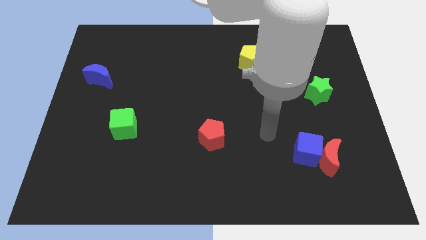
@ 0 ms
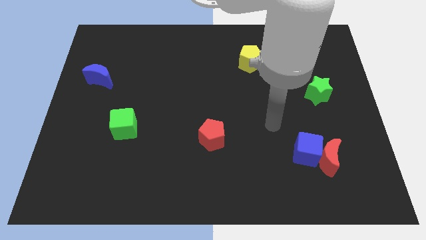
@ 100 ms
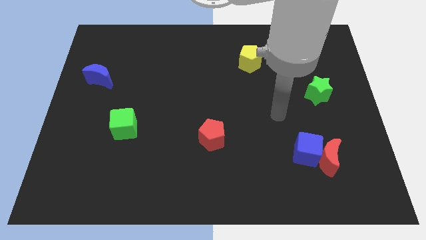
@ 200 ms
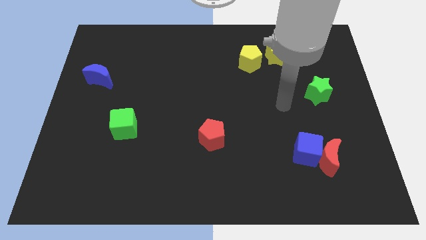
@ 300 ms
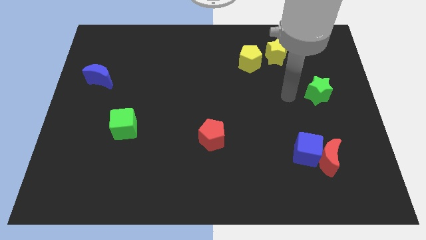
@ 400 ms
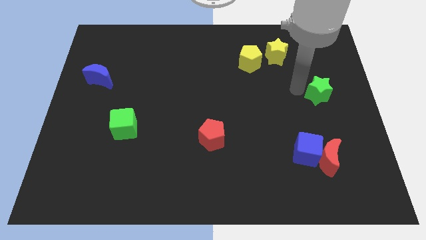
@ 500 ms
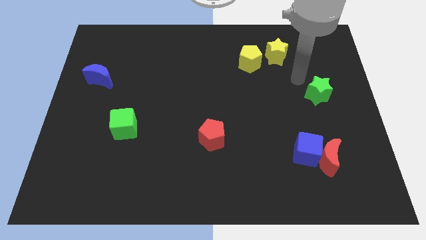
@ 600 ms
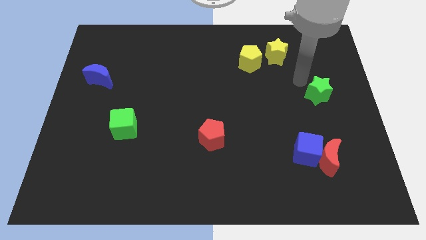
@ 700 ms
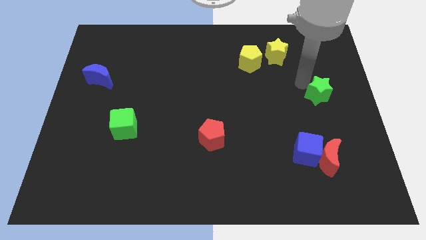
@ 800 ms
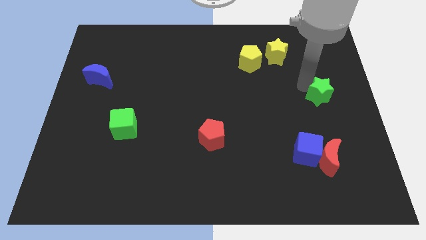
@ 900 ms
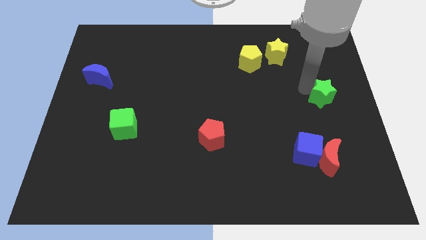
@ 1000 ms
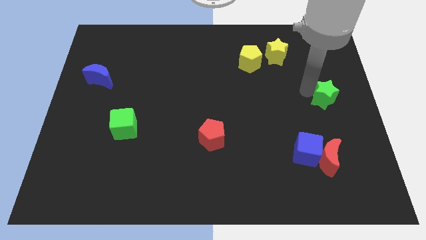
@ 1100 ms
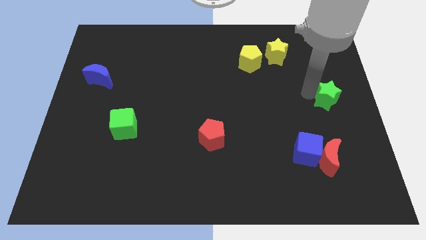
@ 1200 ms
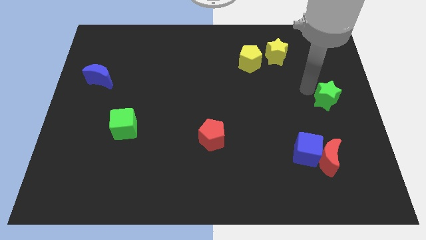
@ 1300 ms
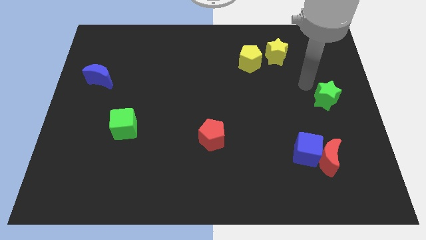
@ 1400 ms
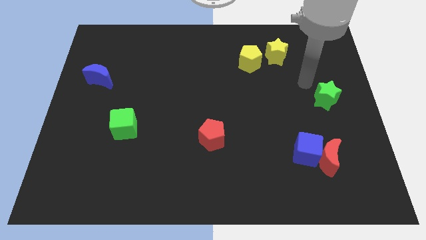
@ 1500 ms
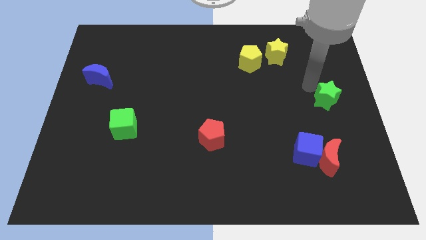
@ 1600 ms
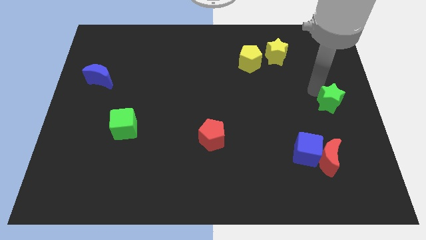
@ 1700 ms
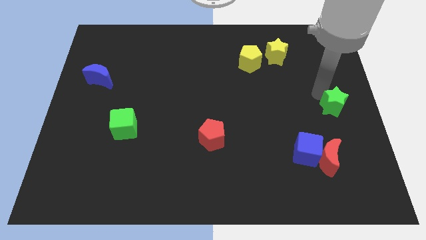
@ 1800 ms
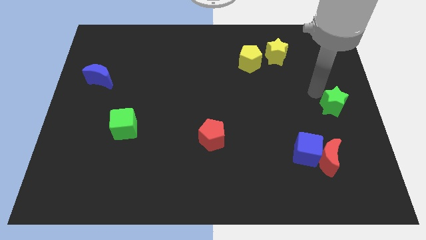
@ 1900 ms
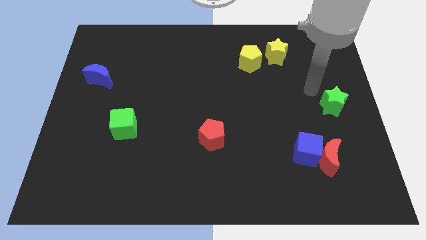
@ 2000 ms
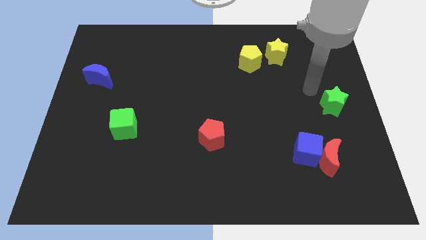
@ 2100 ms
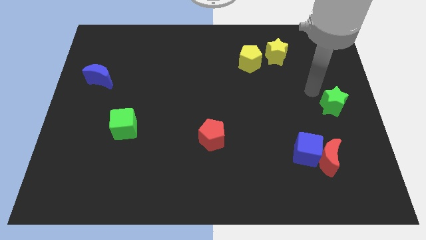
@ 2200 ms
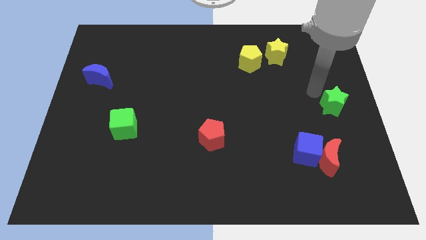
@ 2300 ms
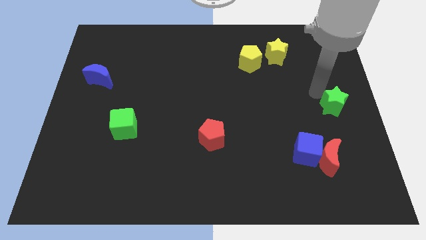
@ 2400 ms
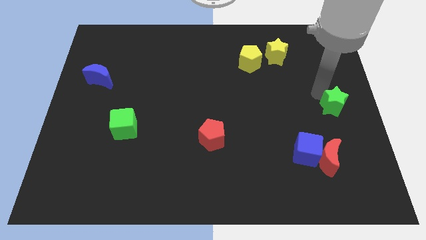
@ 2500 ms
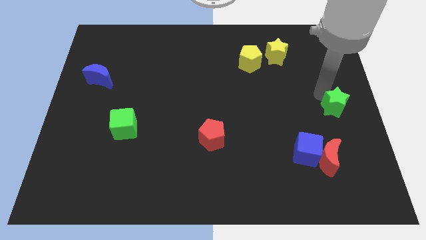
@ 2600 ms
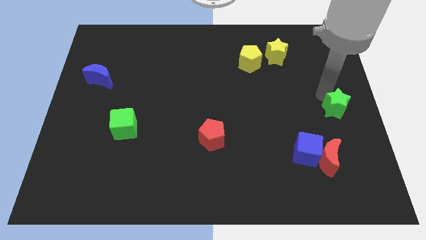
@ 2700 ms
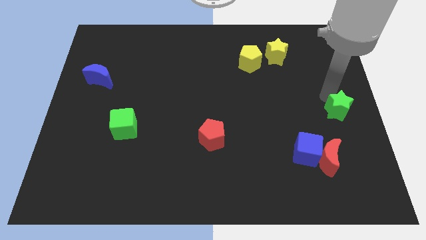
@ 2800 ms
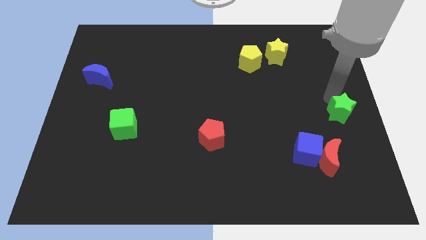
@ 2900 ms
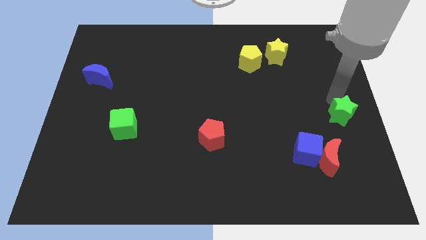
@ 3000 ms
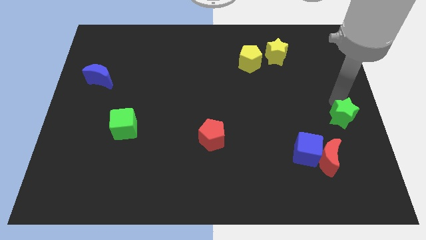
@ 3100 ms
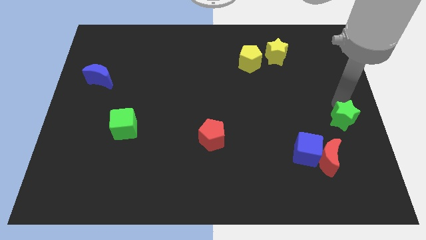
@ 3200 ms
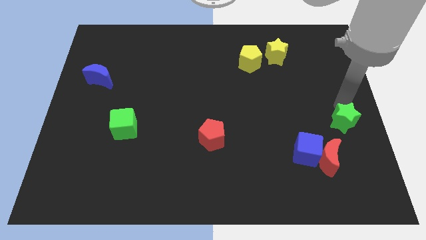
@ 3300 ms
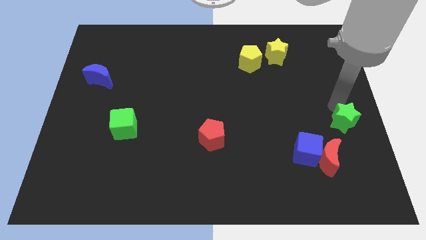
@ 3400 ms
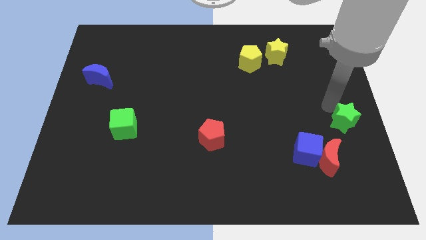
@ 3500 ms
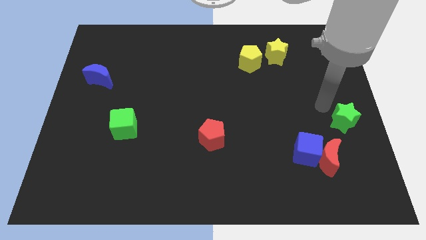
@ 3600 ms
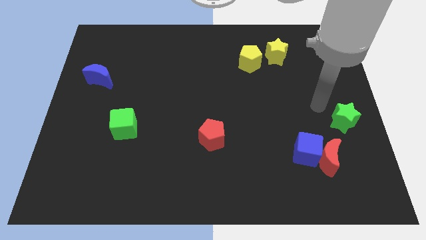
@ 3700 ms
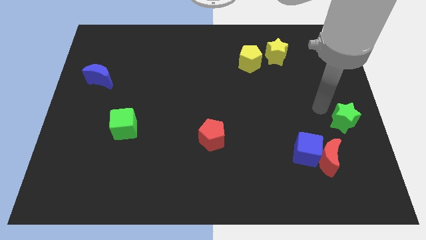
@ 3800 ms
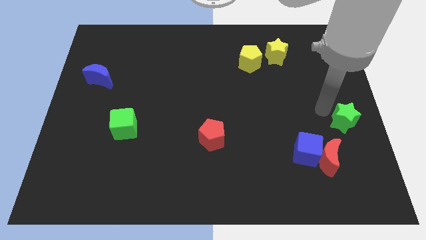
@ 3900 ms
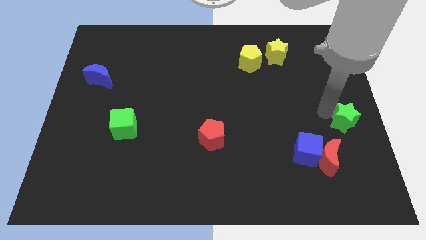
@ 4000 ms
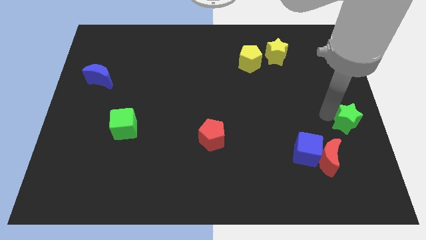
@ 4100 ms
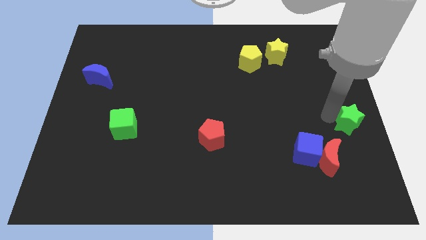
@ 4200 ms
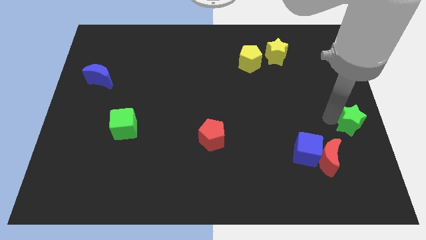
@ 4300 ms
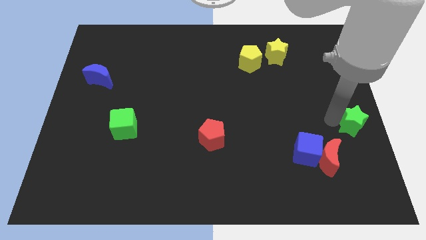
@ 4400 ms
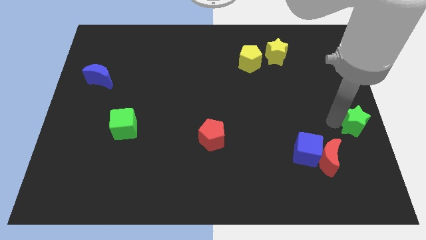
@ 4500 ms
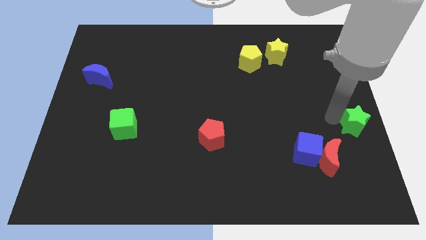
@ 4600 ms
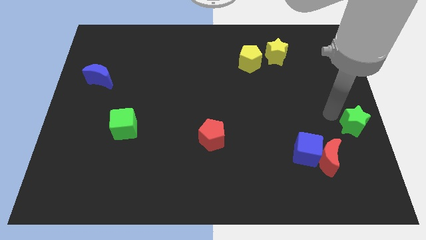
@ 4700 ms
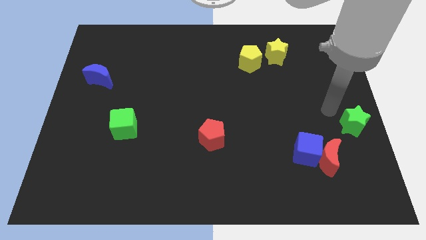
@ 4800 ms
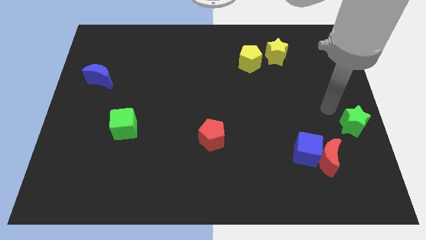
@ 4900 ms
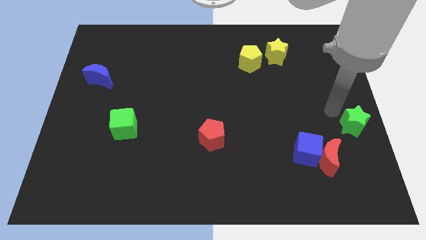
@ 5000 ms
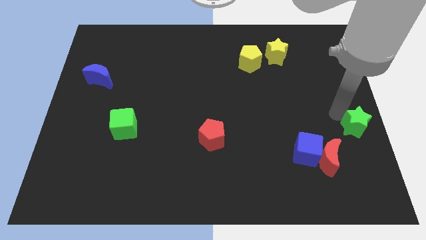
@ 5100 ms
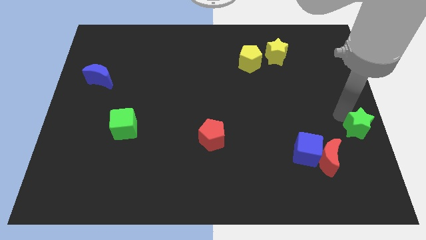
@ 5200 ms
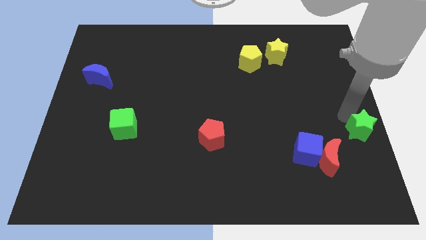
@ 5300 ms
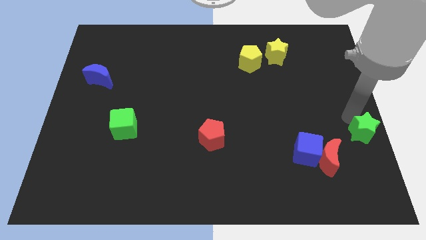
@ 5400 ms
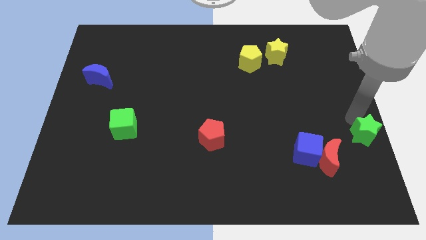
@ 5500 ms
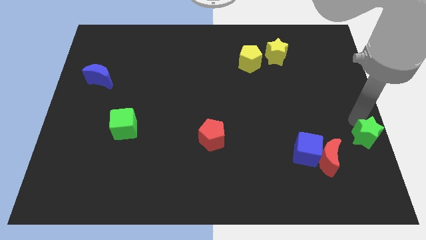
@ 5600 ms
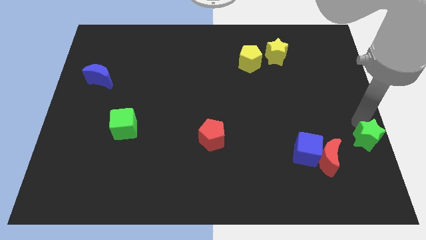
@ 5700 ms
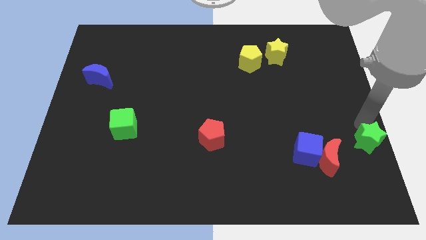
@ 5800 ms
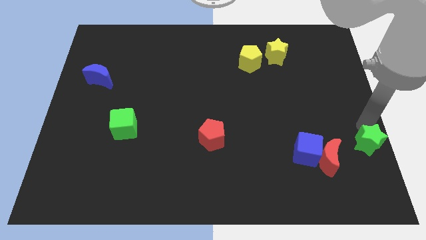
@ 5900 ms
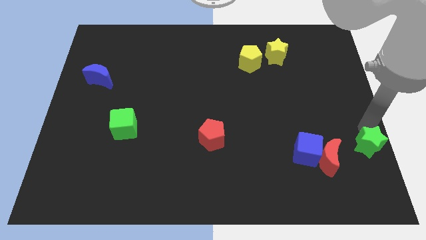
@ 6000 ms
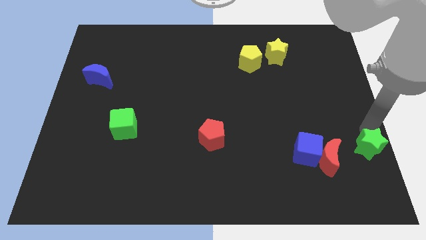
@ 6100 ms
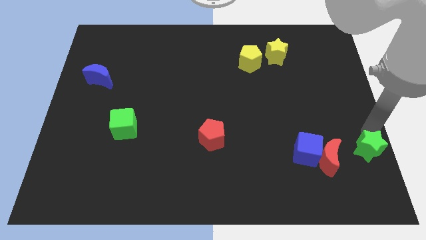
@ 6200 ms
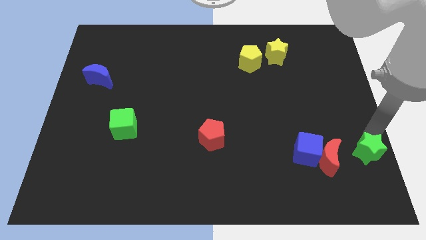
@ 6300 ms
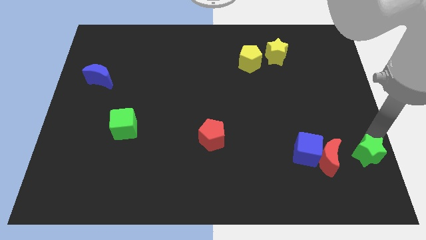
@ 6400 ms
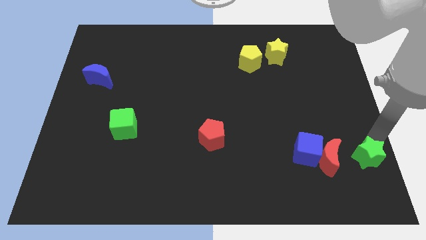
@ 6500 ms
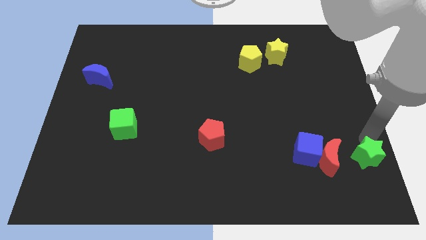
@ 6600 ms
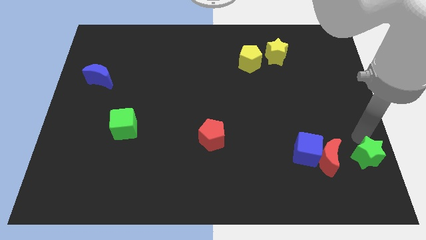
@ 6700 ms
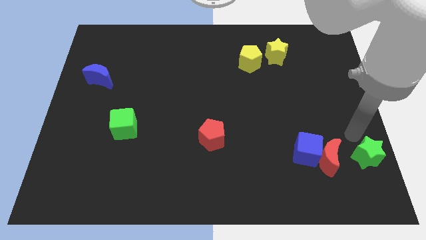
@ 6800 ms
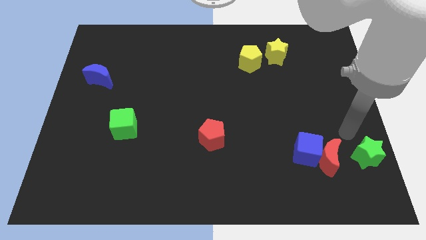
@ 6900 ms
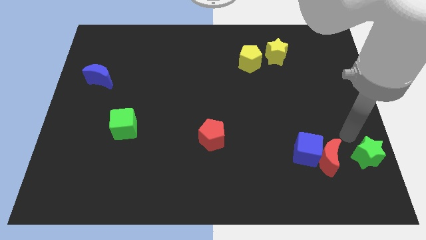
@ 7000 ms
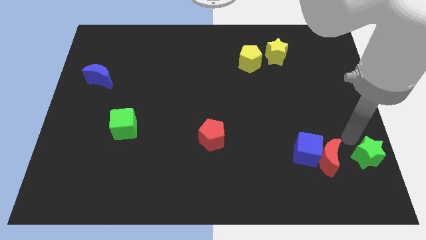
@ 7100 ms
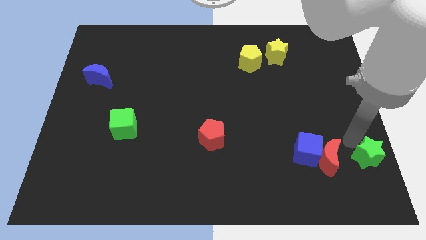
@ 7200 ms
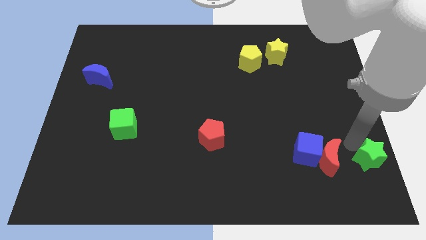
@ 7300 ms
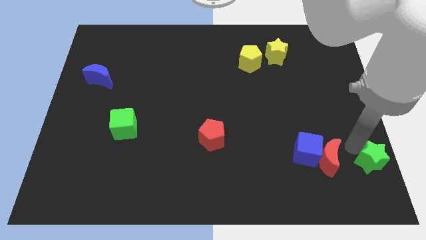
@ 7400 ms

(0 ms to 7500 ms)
slide the green star to the bottom right corner
